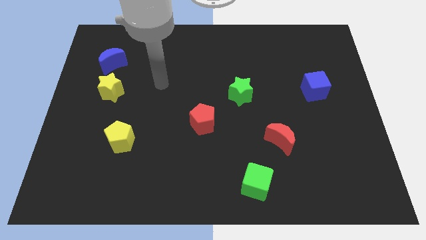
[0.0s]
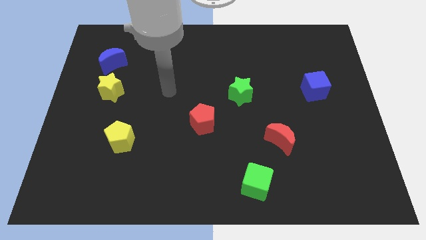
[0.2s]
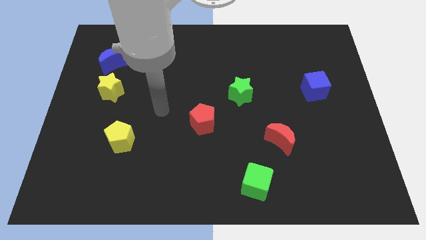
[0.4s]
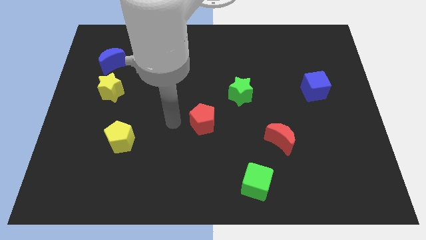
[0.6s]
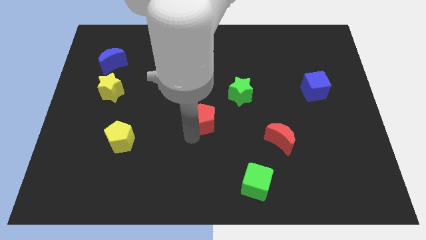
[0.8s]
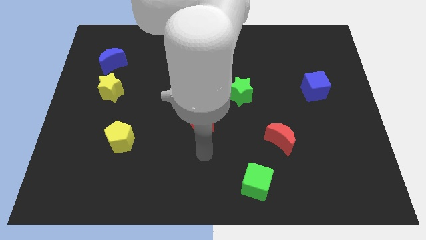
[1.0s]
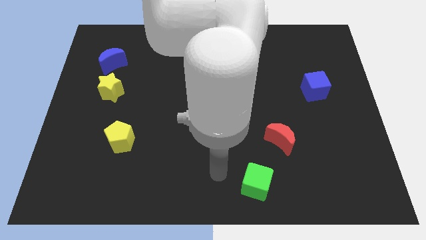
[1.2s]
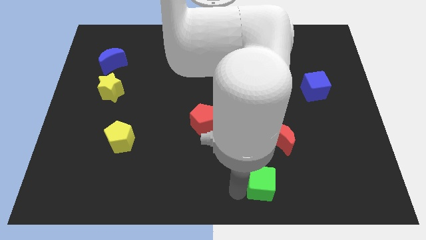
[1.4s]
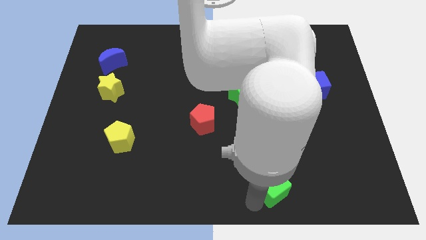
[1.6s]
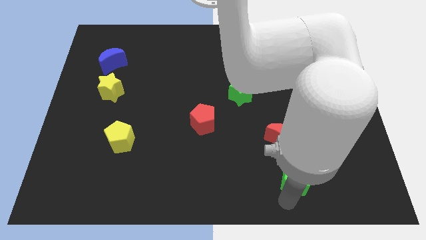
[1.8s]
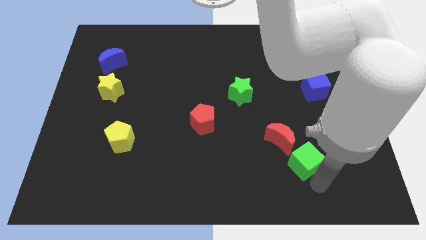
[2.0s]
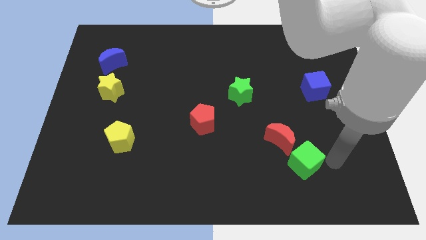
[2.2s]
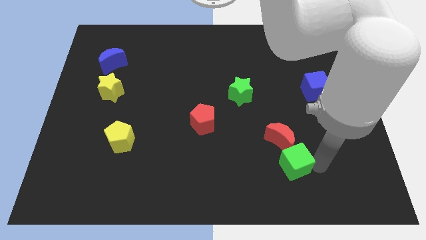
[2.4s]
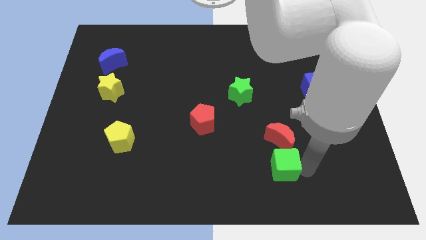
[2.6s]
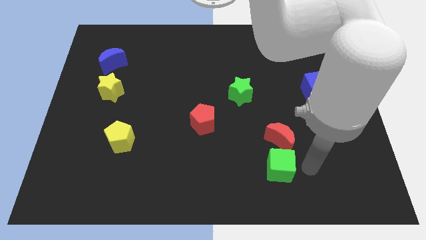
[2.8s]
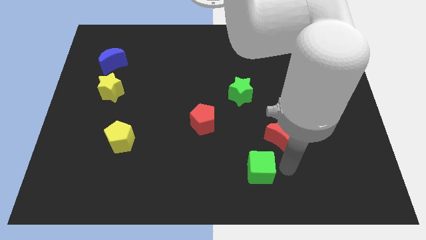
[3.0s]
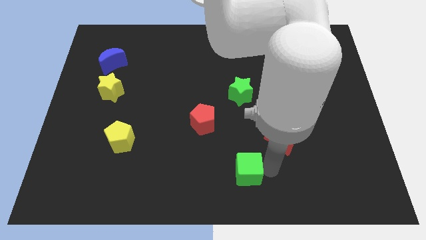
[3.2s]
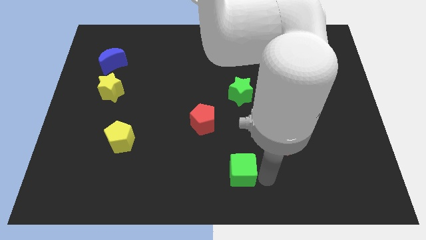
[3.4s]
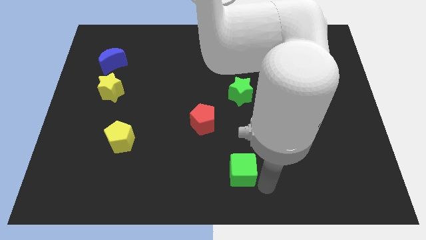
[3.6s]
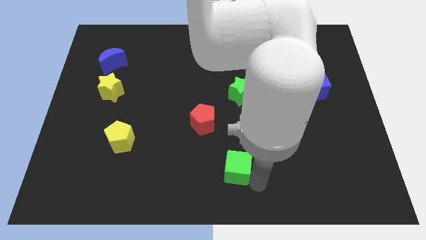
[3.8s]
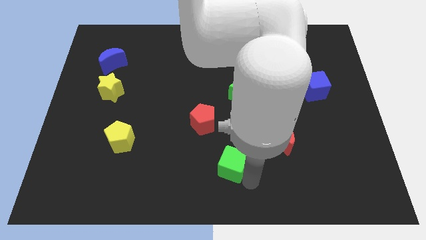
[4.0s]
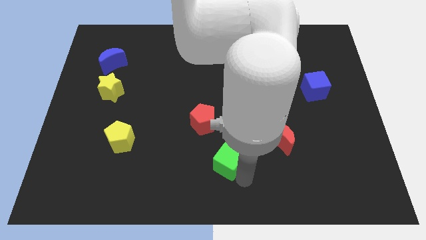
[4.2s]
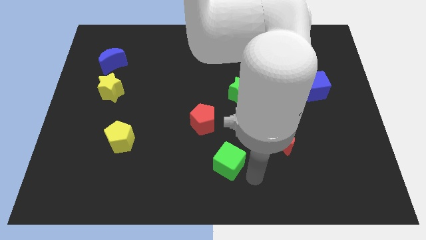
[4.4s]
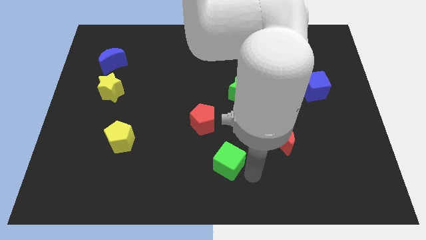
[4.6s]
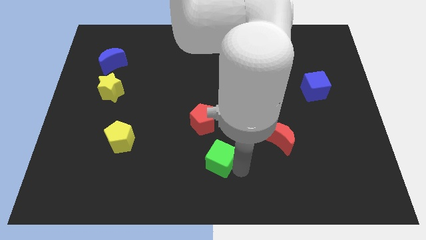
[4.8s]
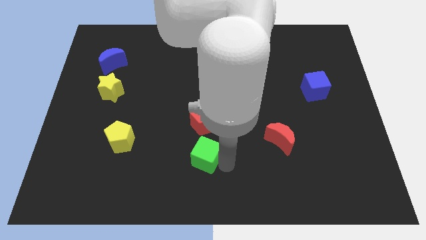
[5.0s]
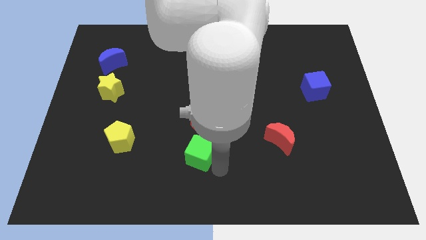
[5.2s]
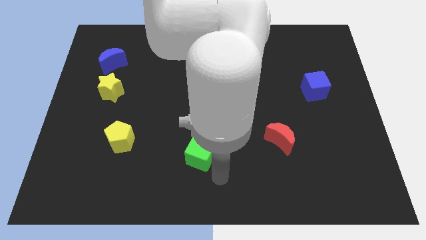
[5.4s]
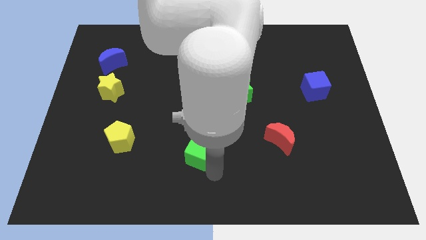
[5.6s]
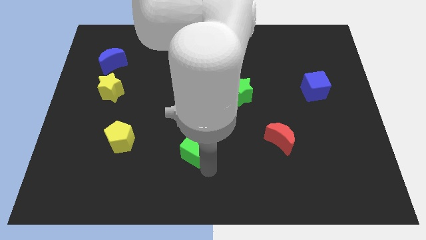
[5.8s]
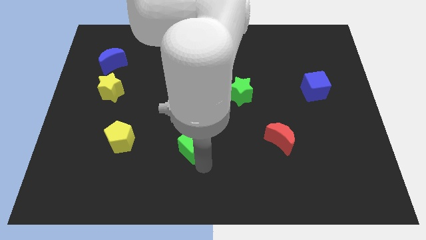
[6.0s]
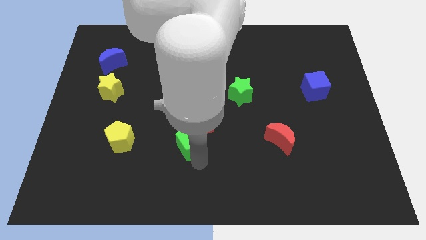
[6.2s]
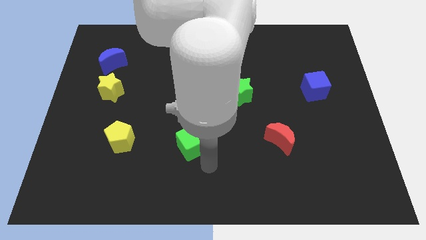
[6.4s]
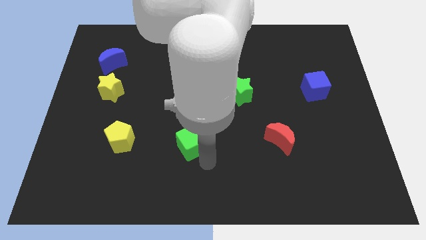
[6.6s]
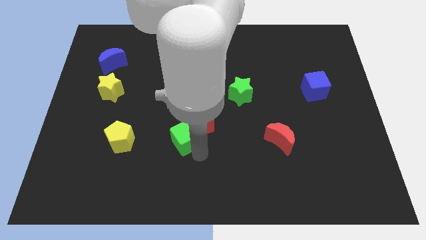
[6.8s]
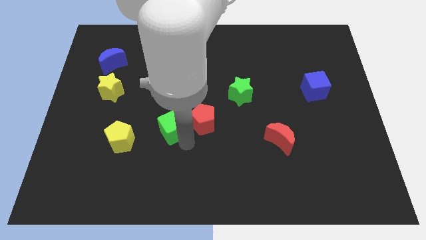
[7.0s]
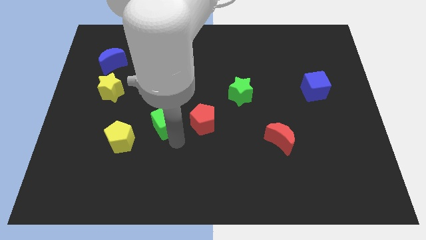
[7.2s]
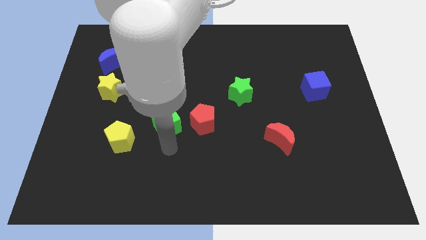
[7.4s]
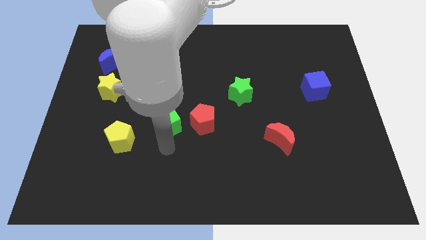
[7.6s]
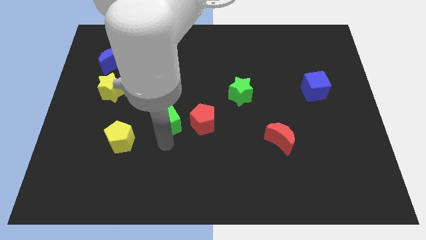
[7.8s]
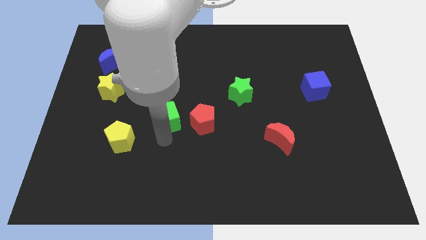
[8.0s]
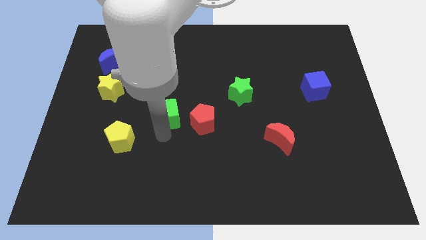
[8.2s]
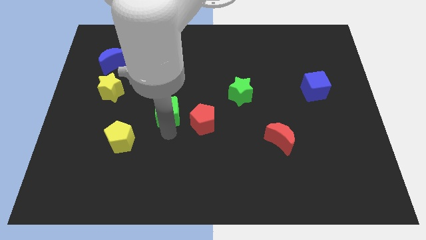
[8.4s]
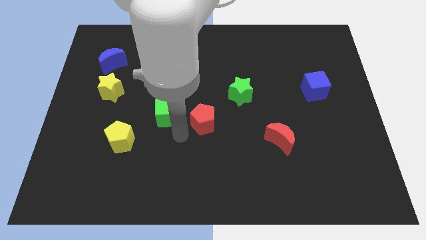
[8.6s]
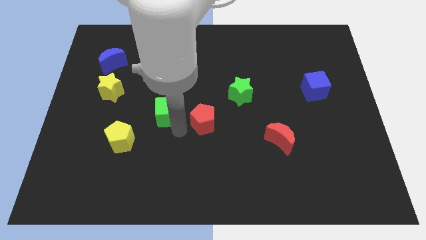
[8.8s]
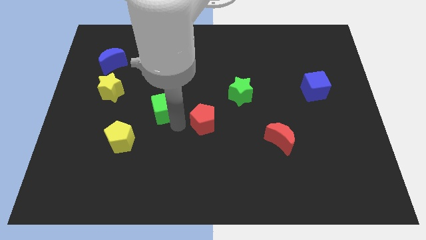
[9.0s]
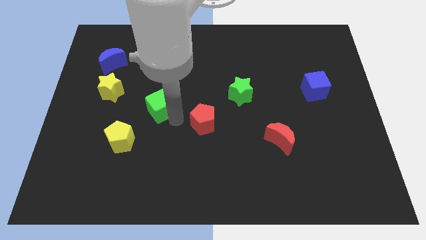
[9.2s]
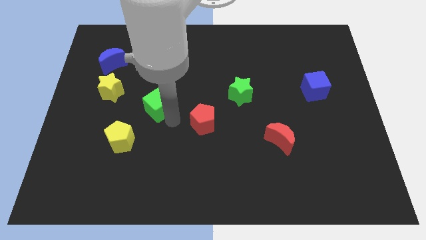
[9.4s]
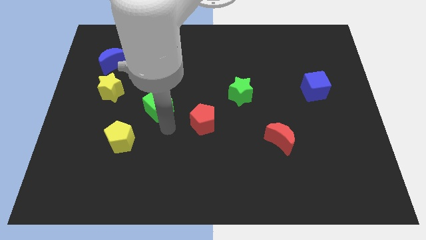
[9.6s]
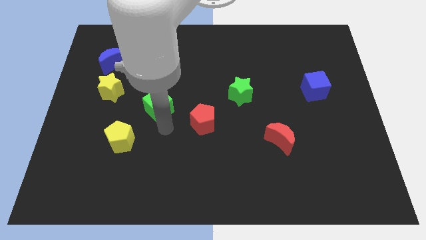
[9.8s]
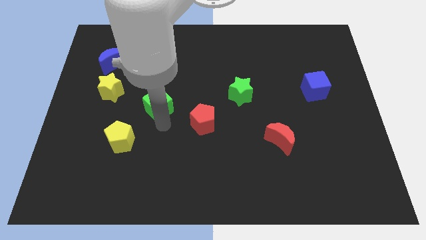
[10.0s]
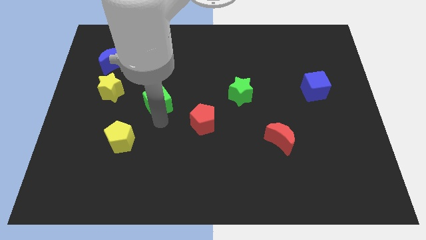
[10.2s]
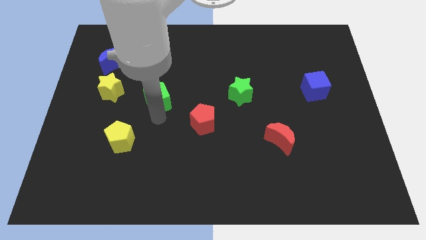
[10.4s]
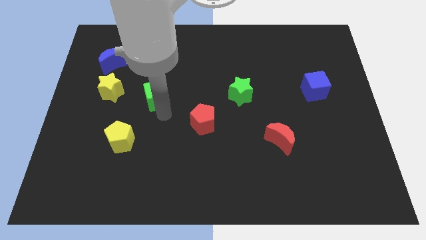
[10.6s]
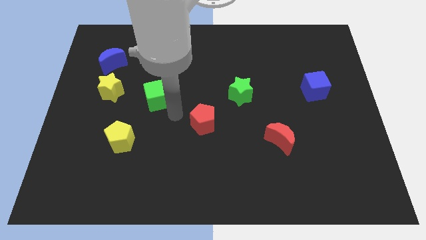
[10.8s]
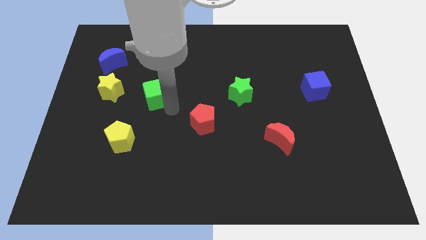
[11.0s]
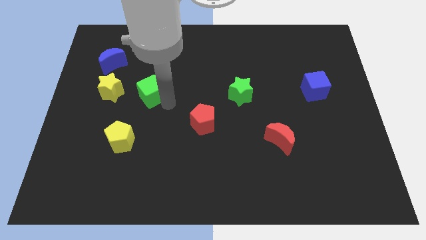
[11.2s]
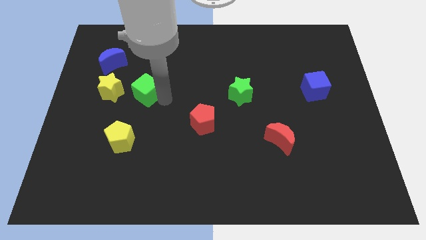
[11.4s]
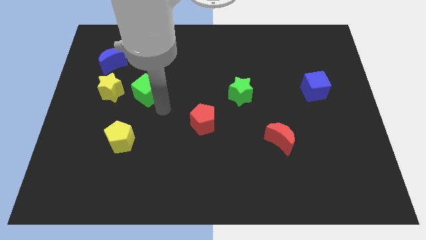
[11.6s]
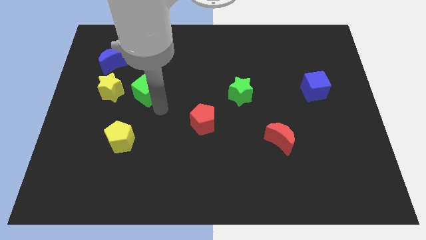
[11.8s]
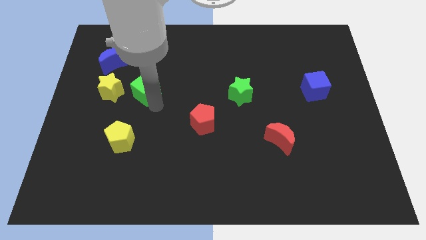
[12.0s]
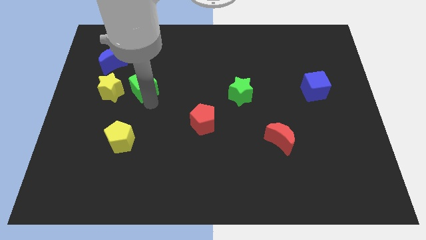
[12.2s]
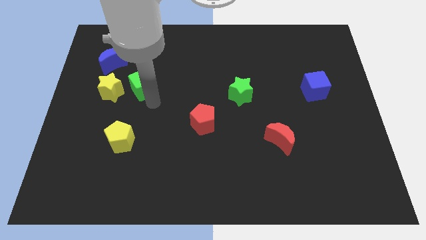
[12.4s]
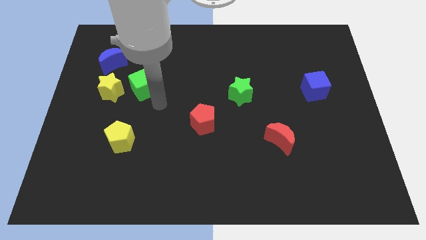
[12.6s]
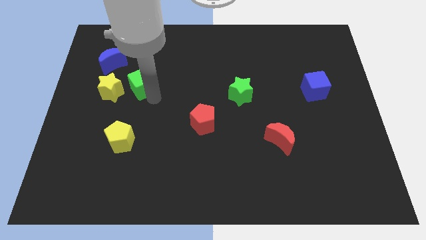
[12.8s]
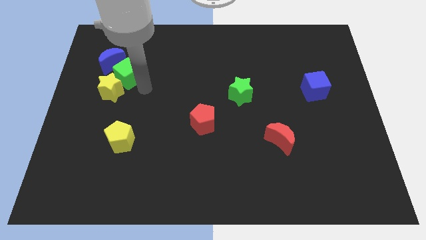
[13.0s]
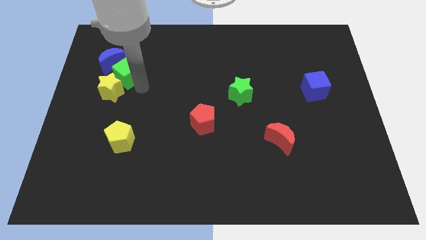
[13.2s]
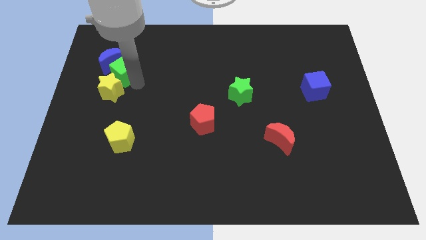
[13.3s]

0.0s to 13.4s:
put the green cube next to the blue moon

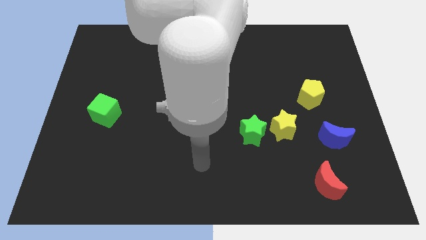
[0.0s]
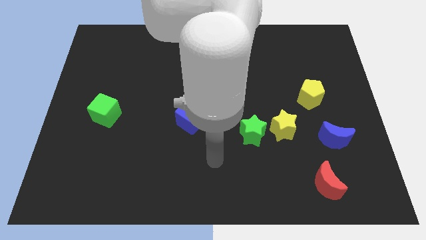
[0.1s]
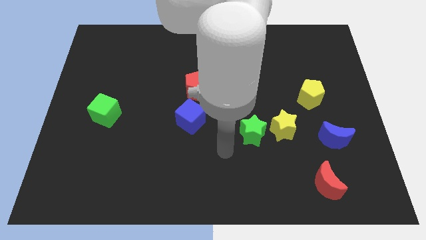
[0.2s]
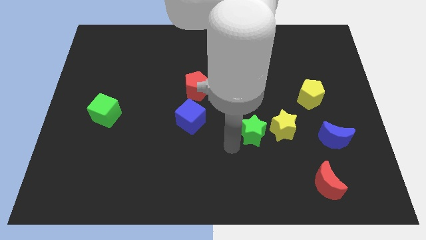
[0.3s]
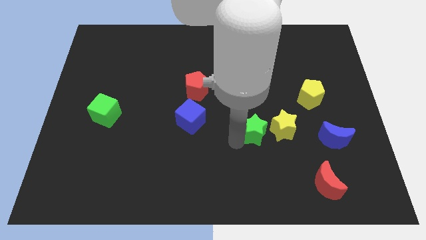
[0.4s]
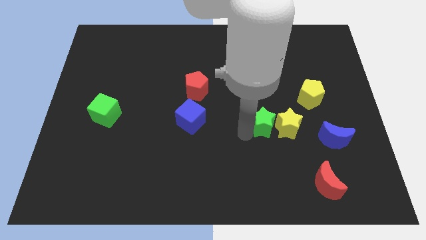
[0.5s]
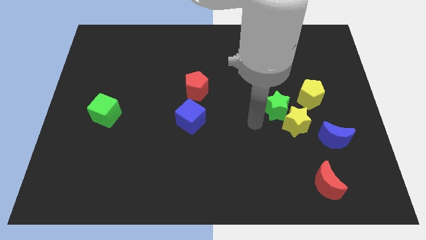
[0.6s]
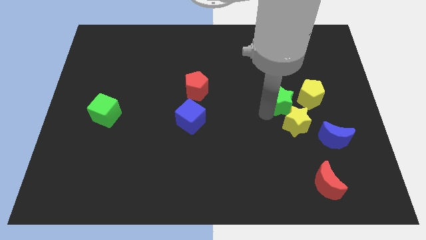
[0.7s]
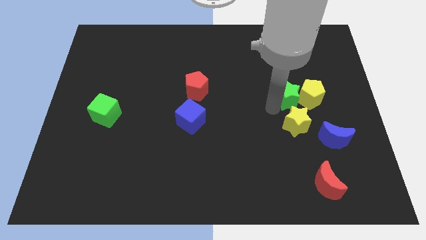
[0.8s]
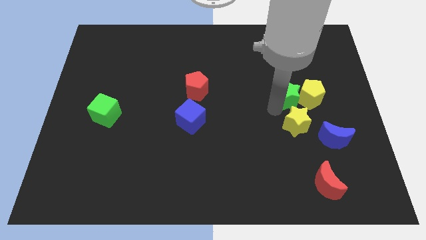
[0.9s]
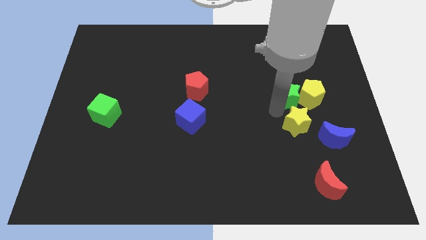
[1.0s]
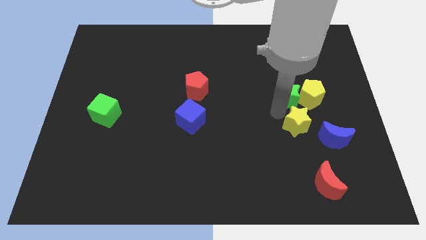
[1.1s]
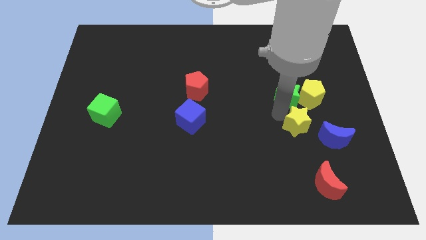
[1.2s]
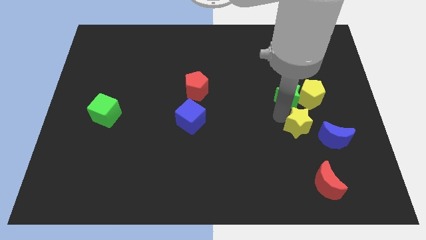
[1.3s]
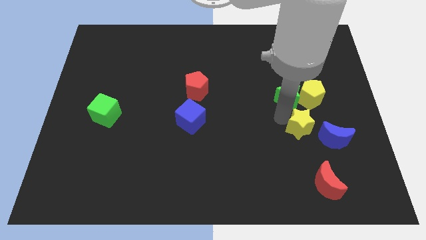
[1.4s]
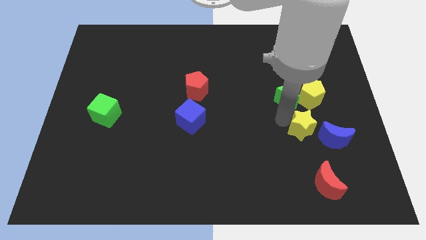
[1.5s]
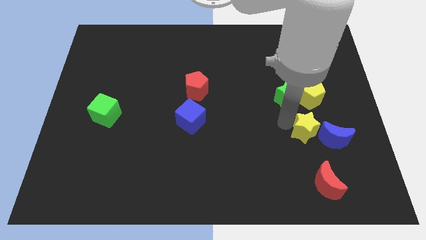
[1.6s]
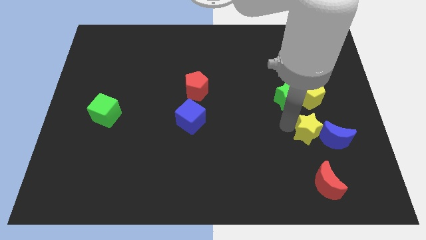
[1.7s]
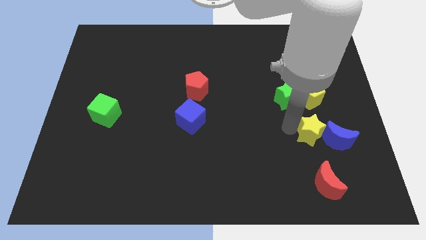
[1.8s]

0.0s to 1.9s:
put the yellow star next to the blue moon
